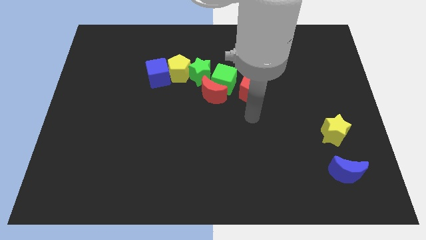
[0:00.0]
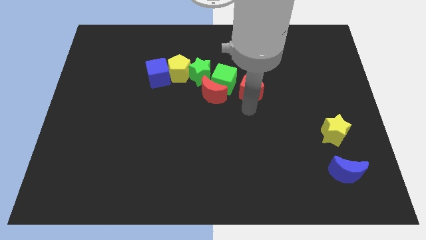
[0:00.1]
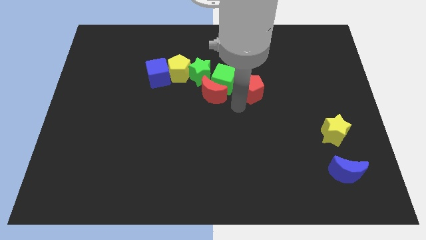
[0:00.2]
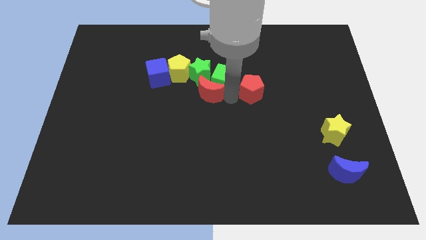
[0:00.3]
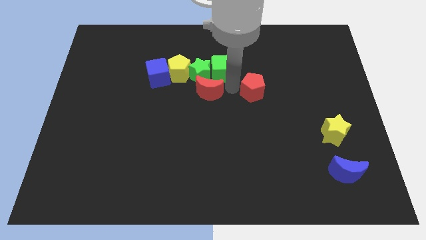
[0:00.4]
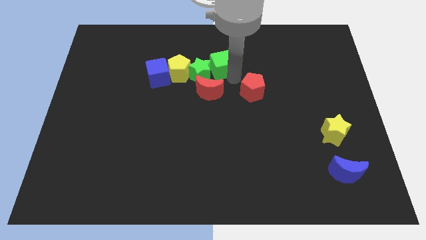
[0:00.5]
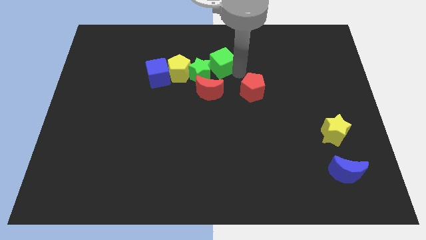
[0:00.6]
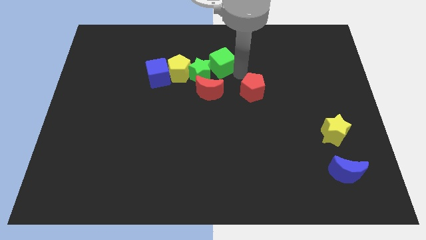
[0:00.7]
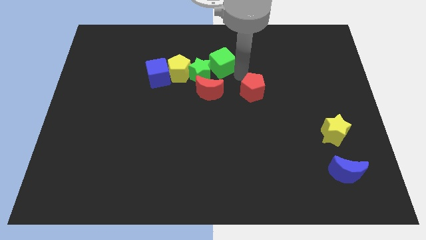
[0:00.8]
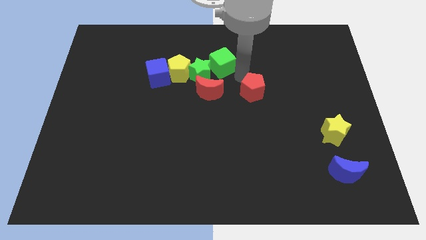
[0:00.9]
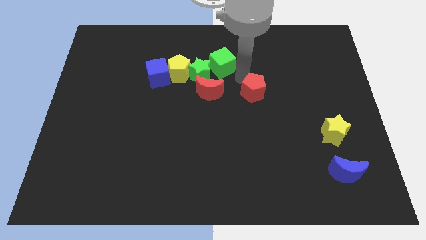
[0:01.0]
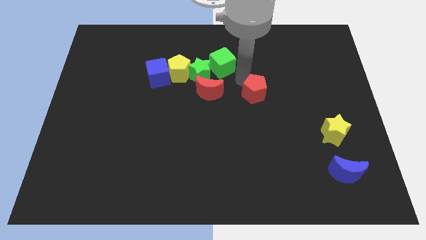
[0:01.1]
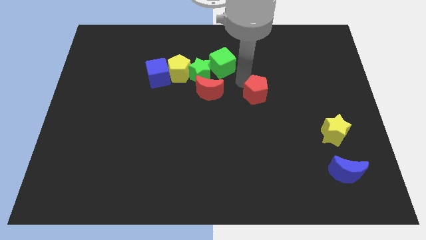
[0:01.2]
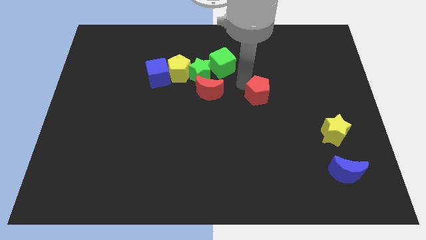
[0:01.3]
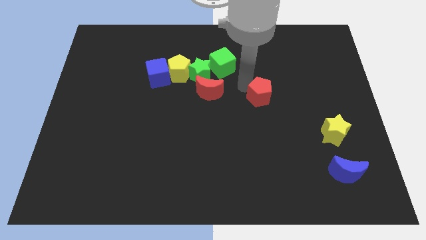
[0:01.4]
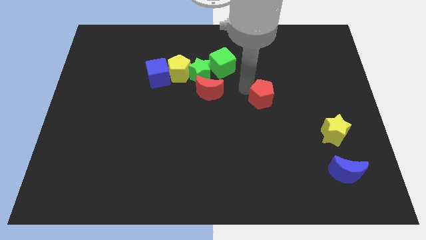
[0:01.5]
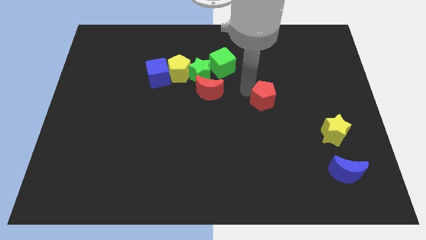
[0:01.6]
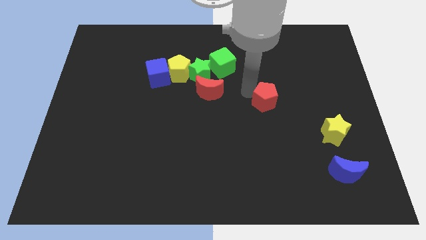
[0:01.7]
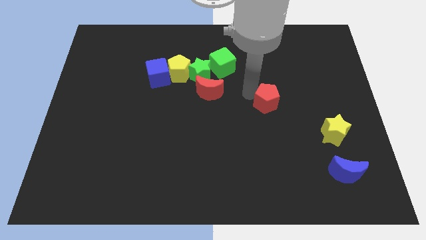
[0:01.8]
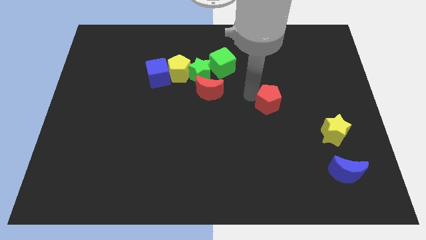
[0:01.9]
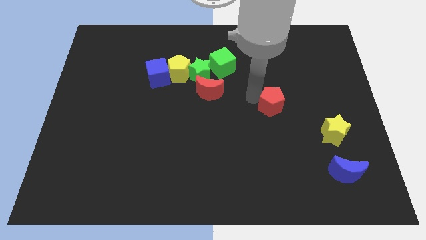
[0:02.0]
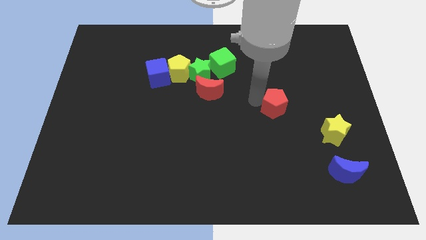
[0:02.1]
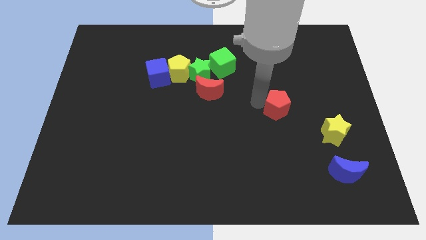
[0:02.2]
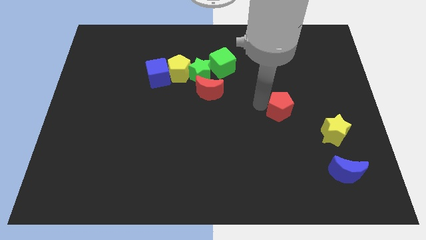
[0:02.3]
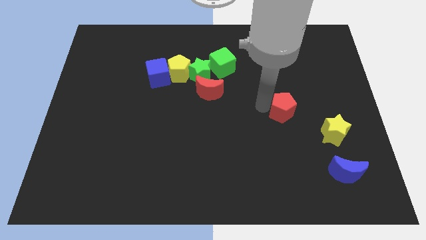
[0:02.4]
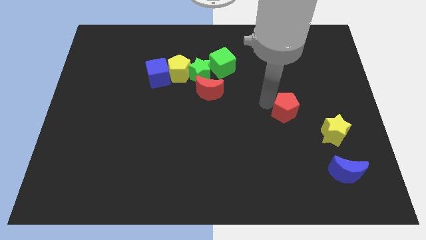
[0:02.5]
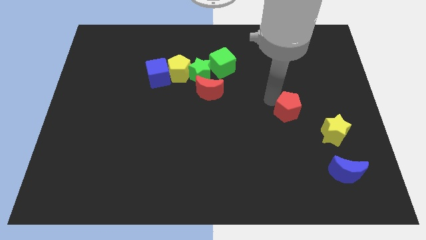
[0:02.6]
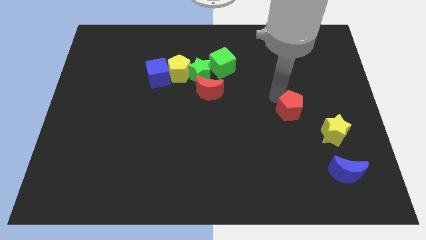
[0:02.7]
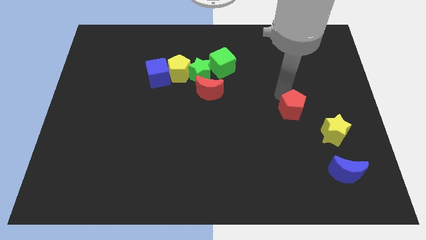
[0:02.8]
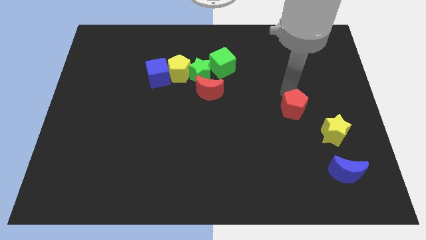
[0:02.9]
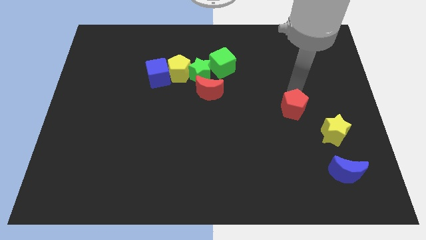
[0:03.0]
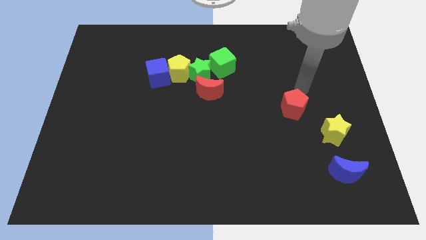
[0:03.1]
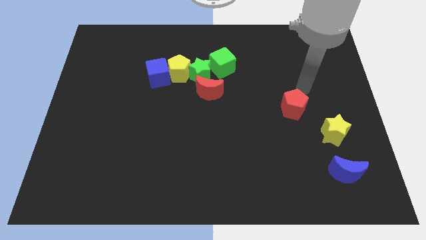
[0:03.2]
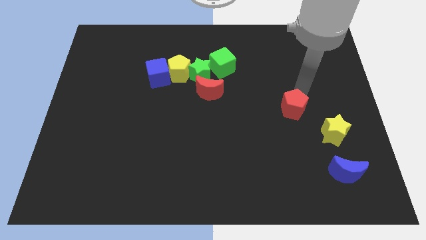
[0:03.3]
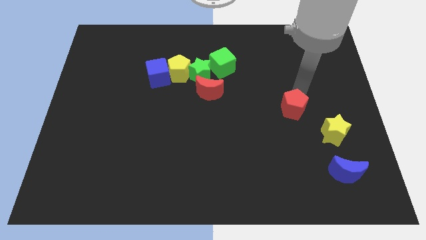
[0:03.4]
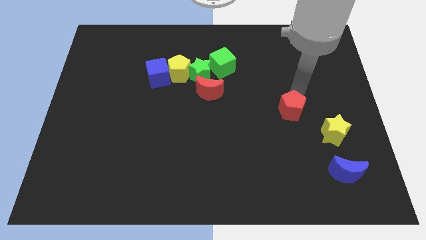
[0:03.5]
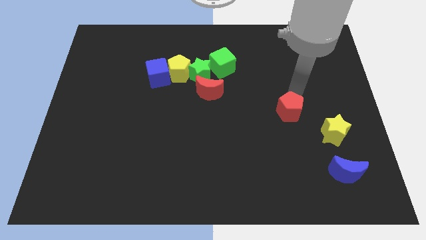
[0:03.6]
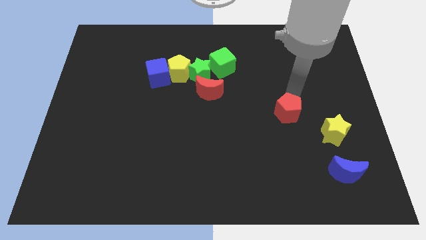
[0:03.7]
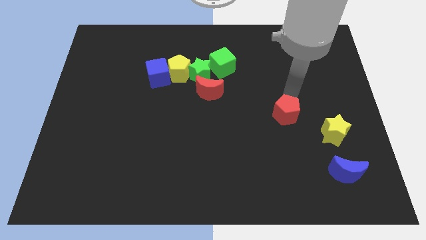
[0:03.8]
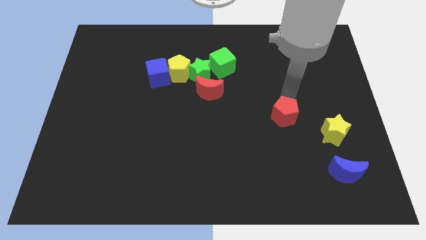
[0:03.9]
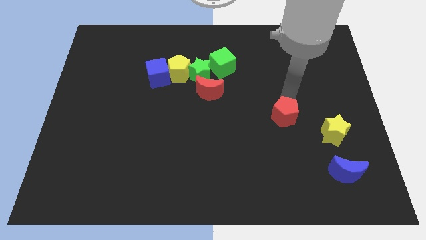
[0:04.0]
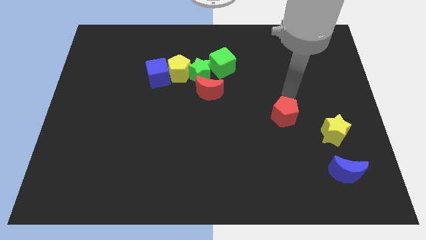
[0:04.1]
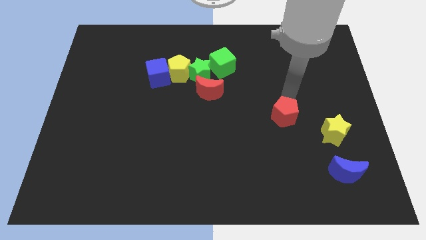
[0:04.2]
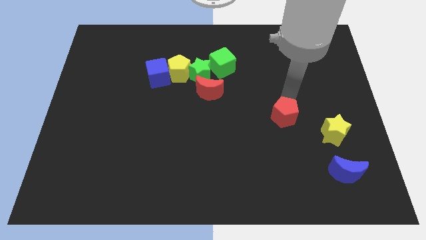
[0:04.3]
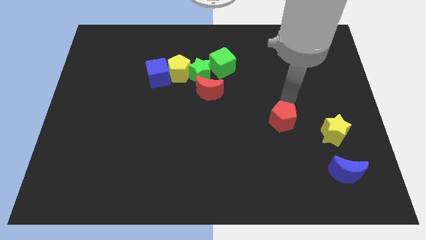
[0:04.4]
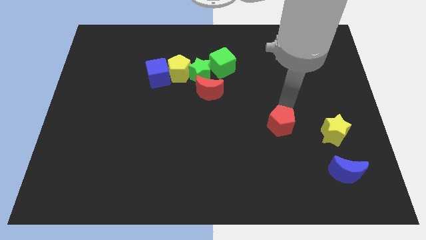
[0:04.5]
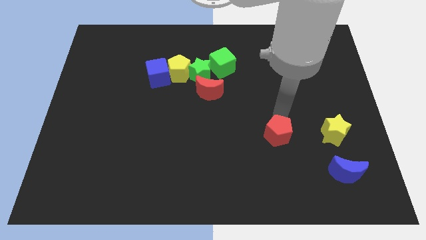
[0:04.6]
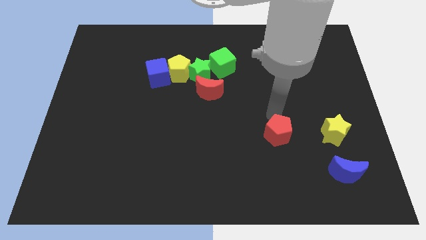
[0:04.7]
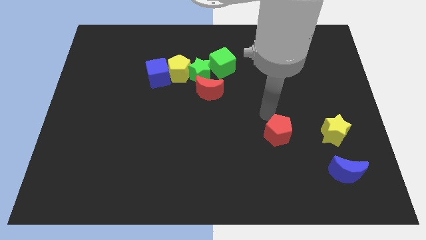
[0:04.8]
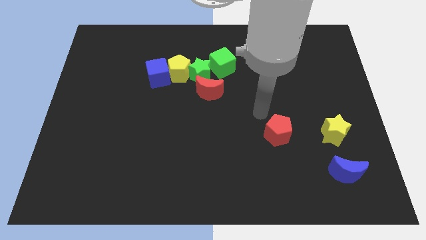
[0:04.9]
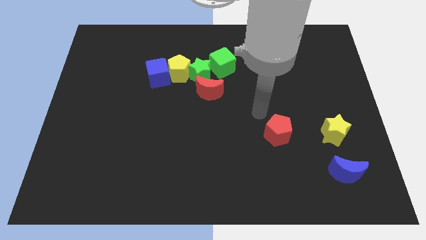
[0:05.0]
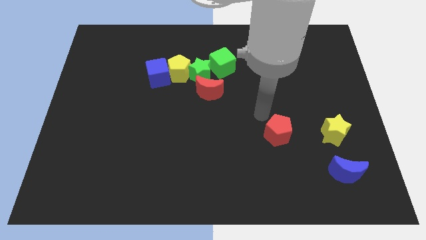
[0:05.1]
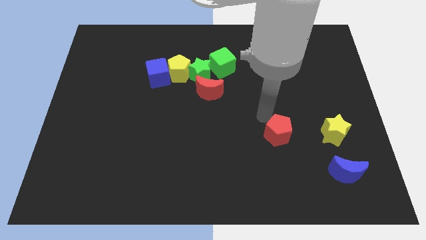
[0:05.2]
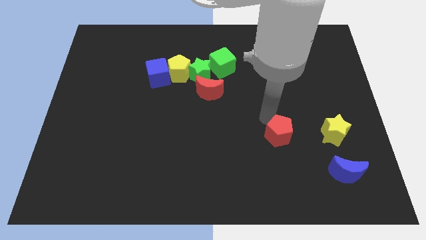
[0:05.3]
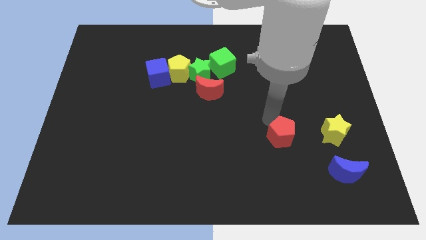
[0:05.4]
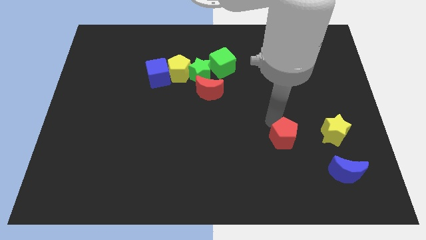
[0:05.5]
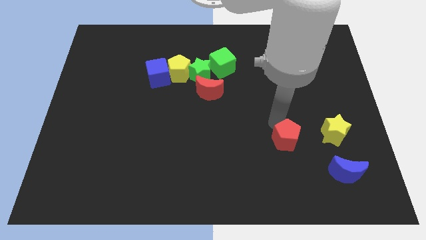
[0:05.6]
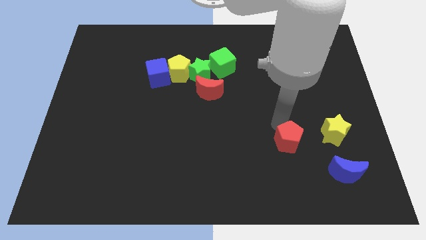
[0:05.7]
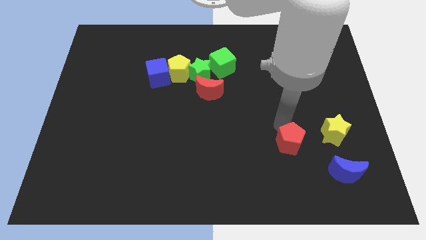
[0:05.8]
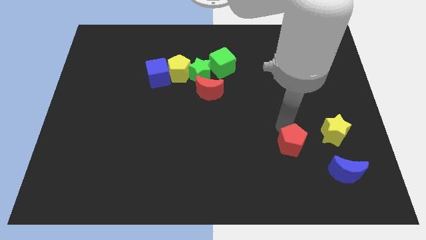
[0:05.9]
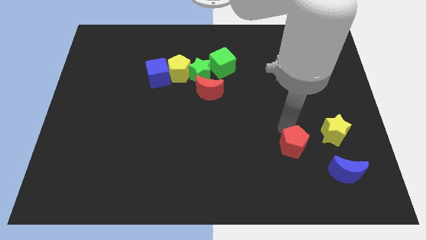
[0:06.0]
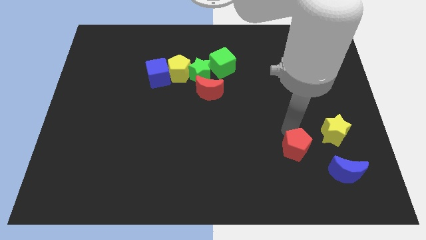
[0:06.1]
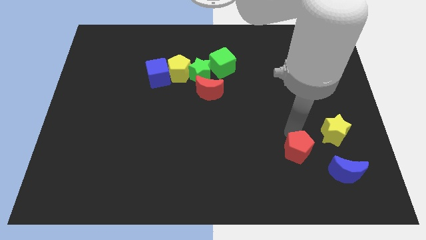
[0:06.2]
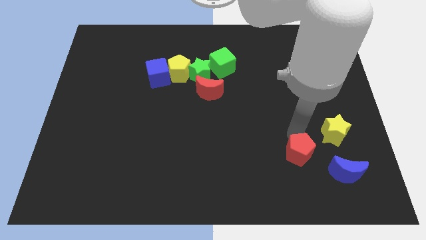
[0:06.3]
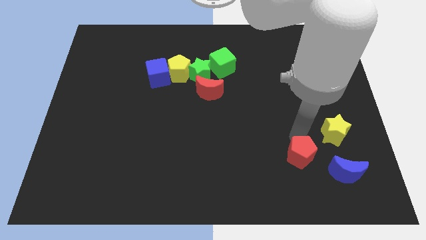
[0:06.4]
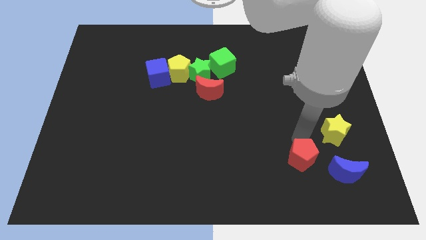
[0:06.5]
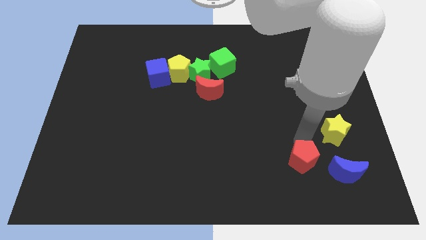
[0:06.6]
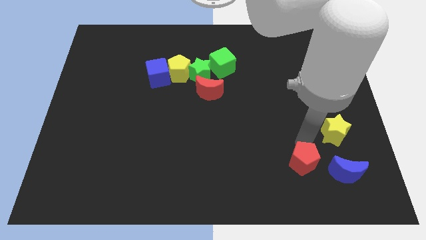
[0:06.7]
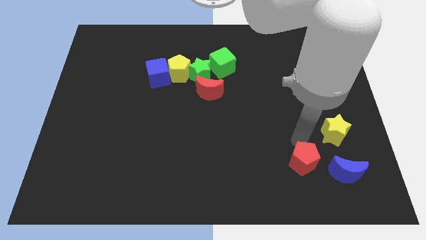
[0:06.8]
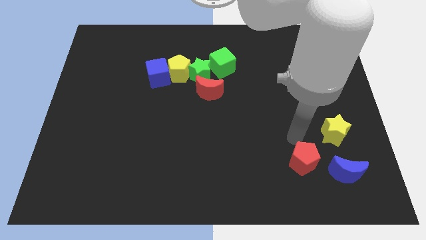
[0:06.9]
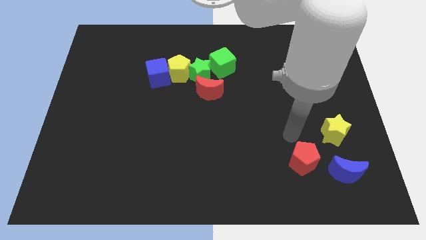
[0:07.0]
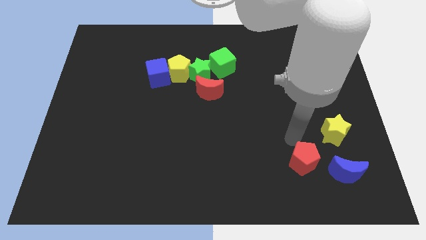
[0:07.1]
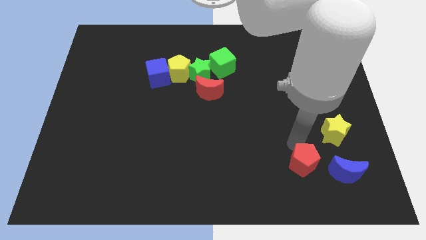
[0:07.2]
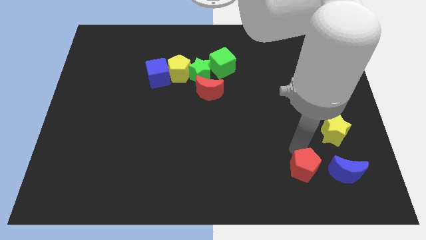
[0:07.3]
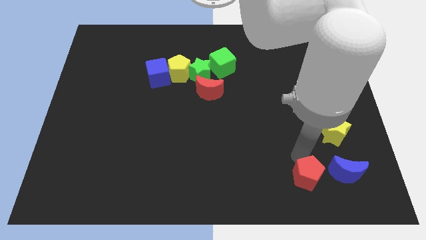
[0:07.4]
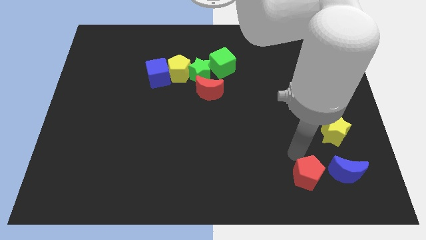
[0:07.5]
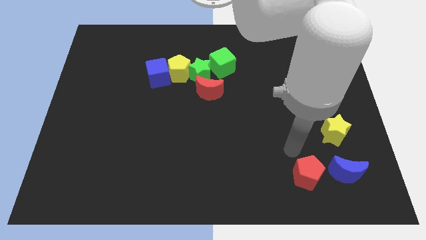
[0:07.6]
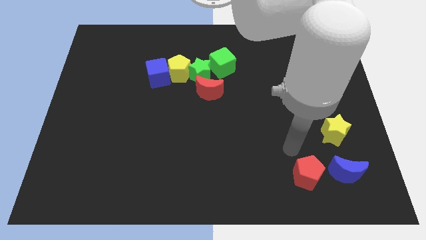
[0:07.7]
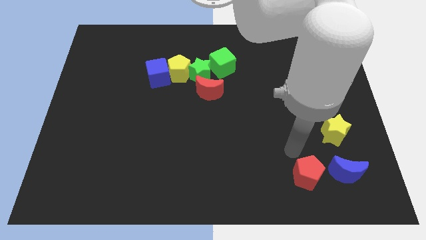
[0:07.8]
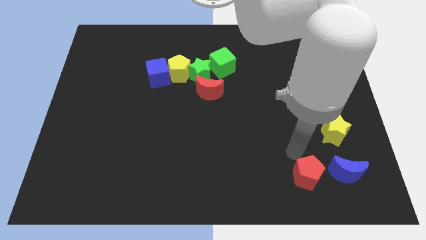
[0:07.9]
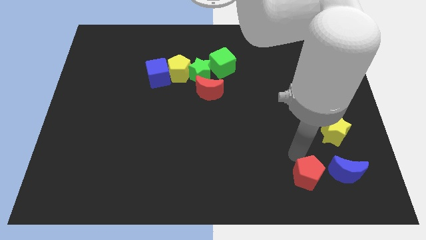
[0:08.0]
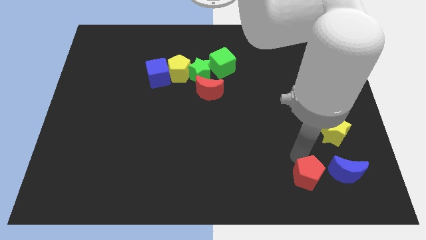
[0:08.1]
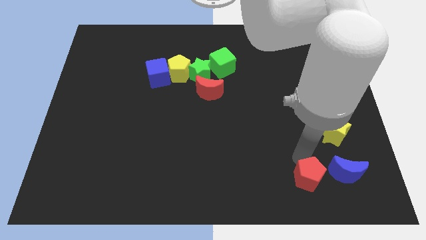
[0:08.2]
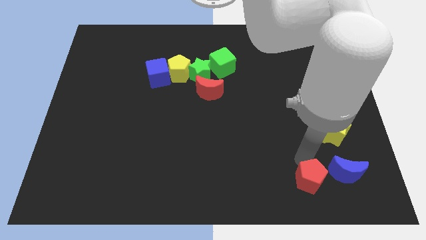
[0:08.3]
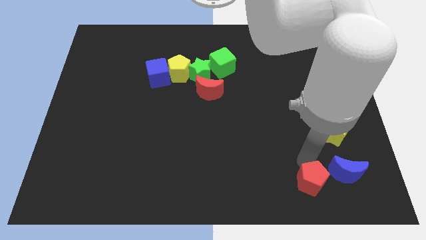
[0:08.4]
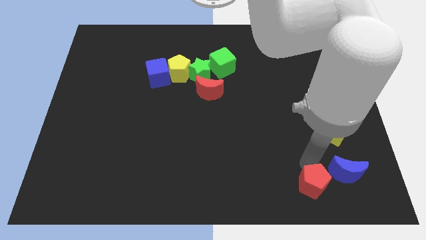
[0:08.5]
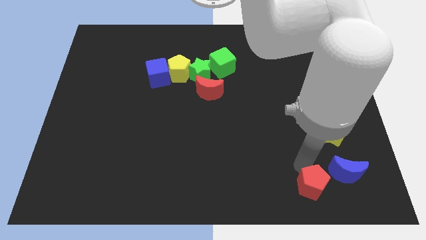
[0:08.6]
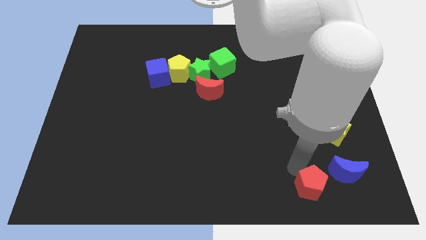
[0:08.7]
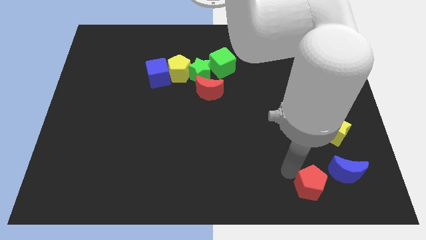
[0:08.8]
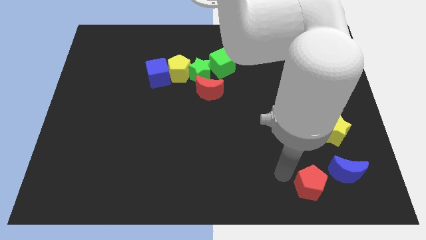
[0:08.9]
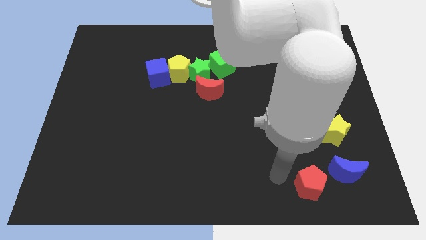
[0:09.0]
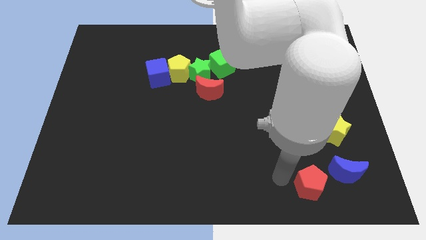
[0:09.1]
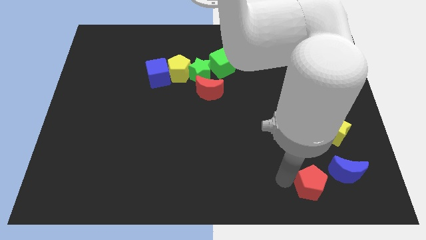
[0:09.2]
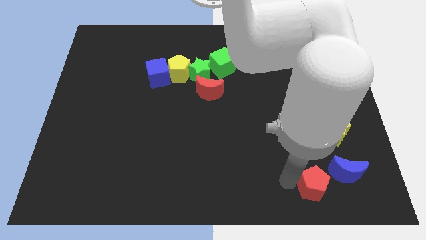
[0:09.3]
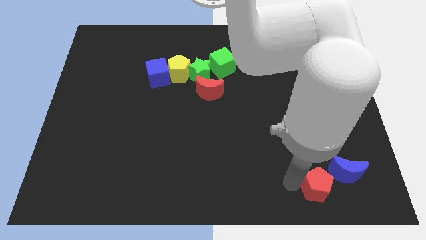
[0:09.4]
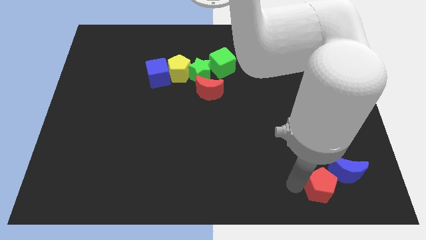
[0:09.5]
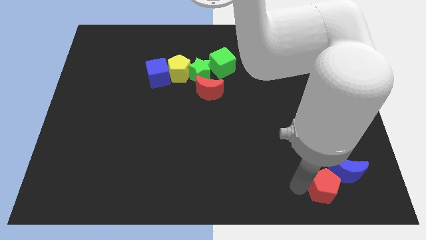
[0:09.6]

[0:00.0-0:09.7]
move the red pentagon to the bottom side of the yellow star
